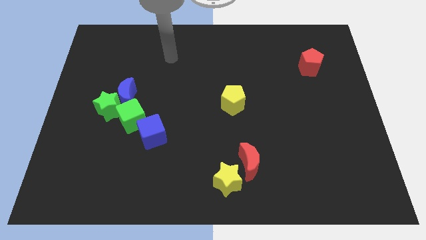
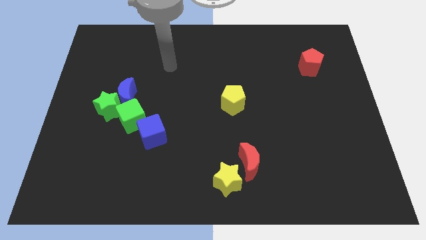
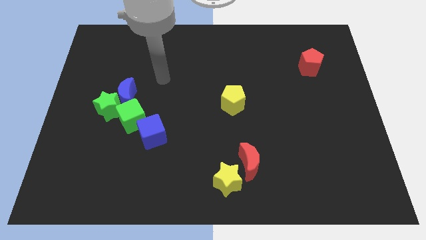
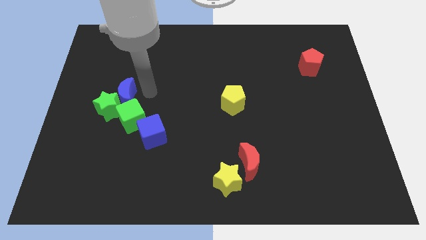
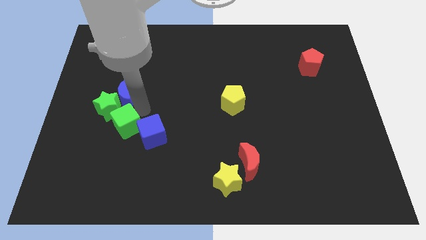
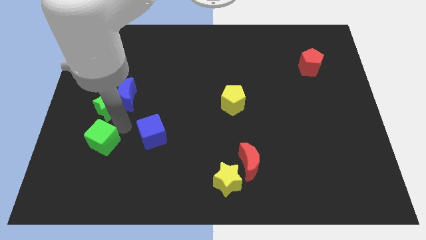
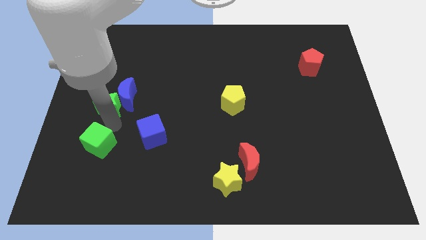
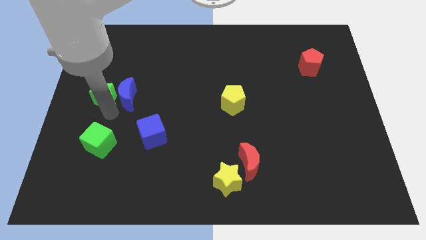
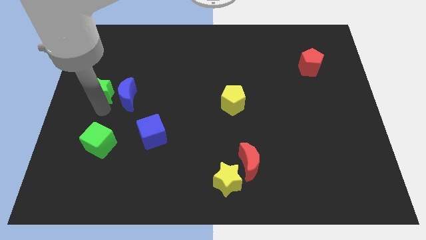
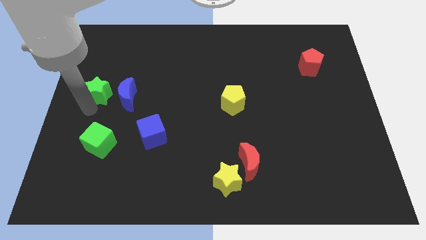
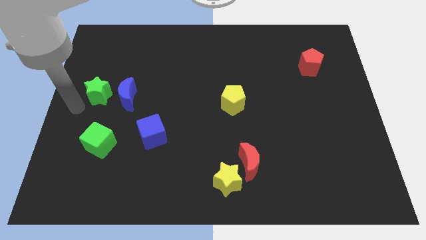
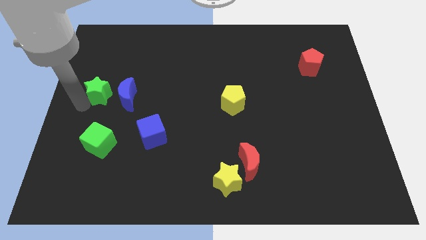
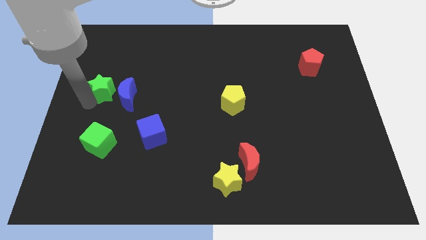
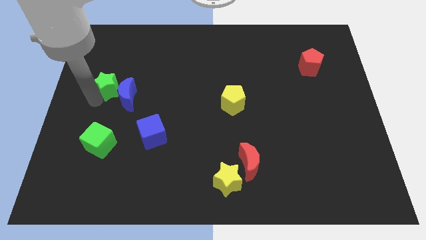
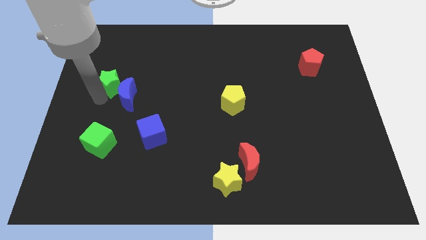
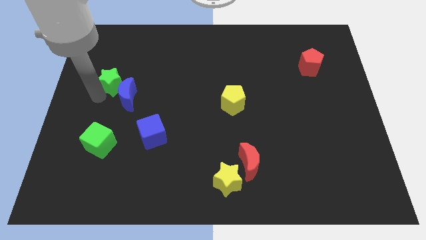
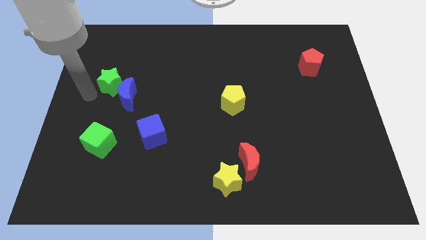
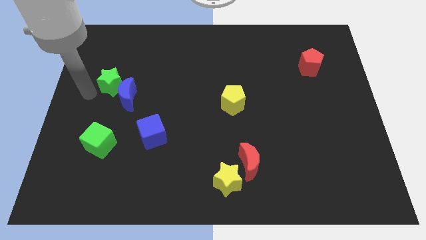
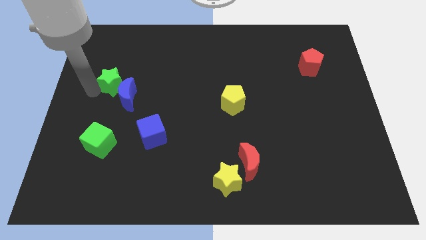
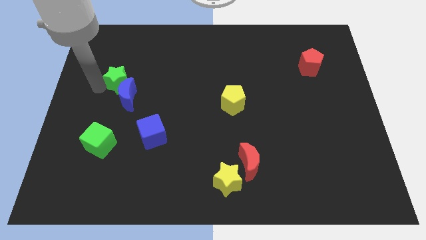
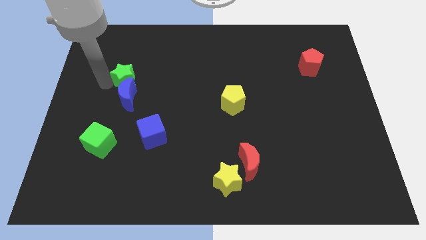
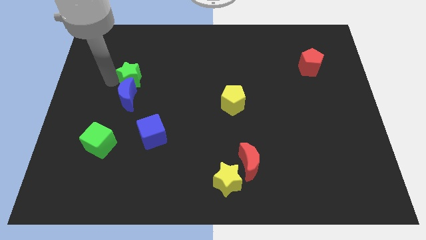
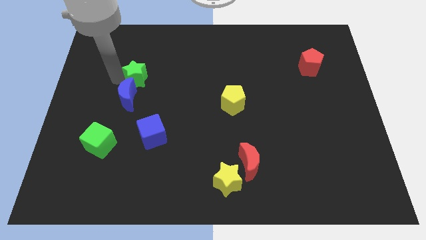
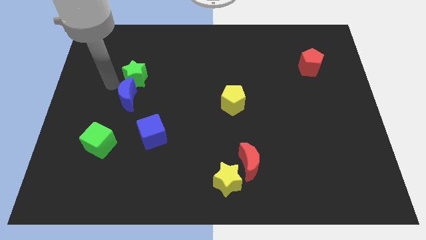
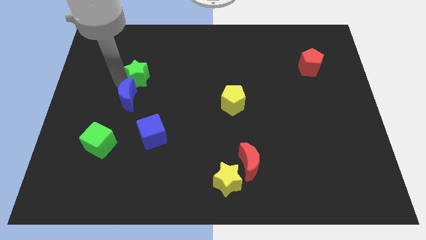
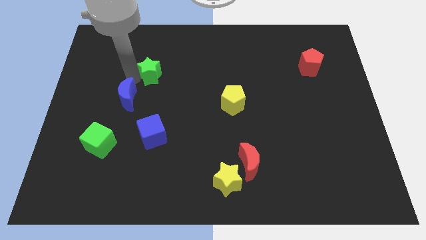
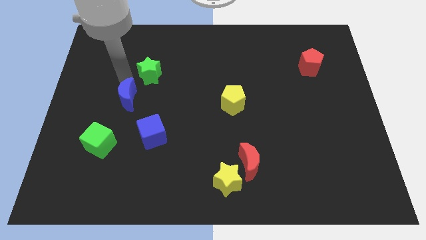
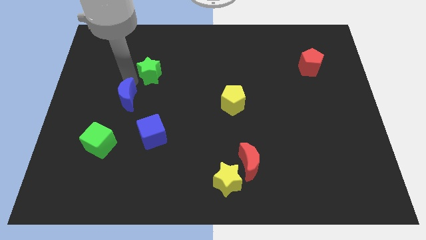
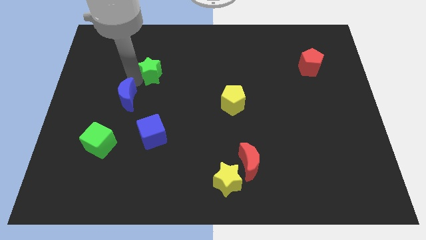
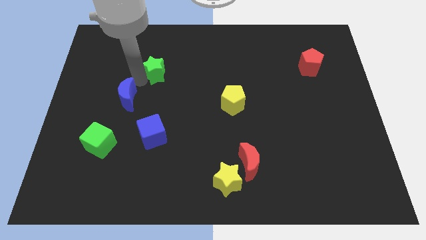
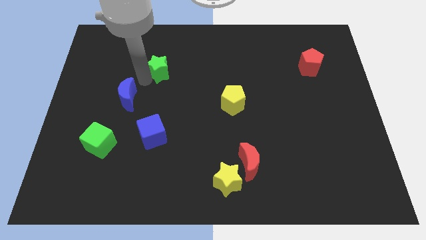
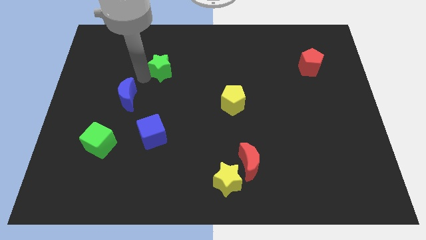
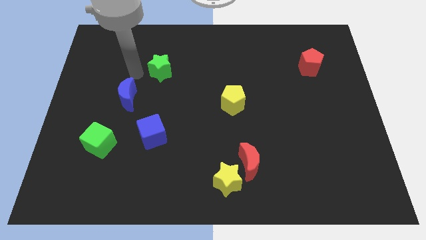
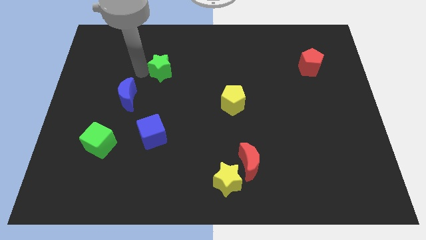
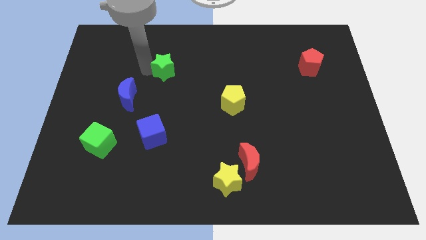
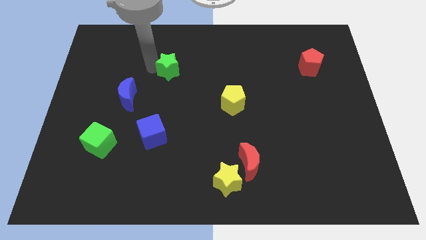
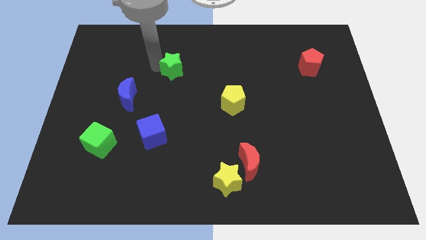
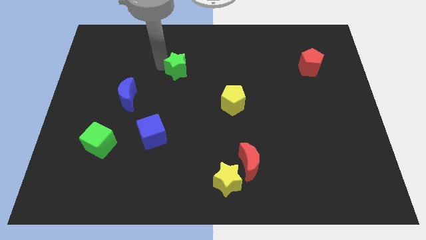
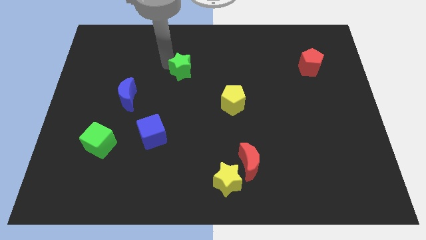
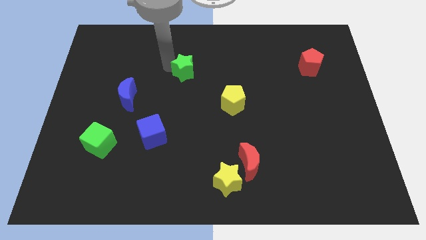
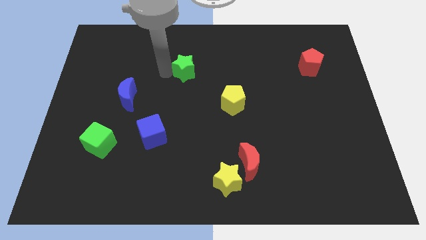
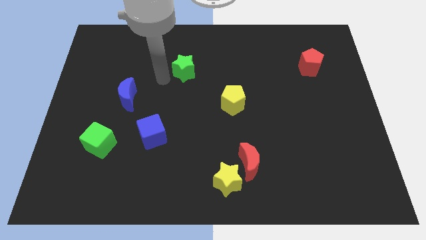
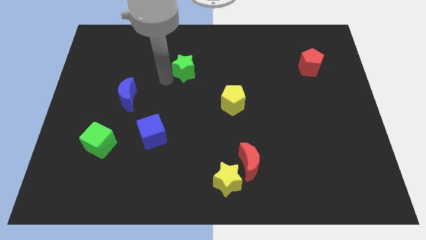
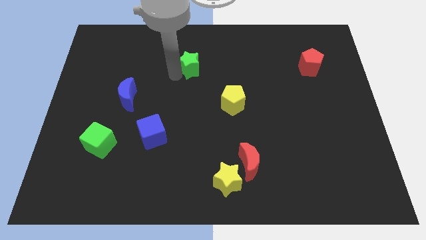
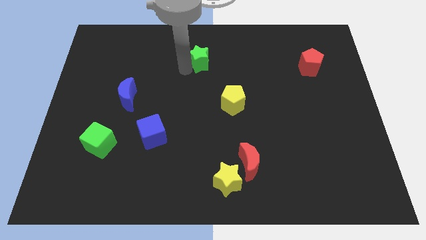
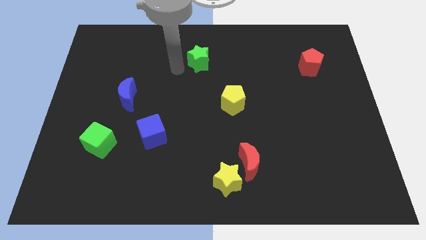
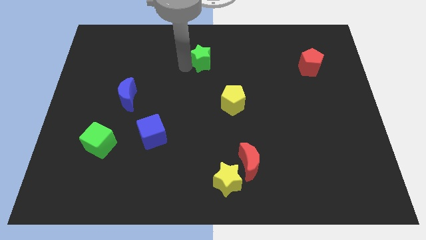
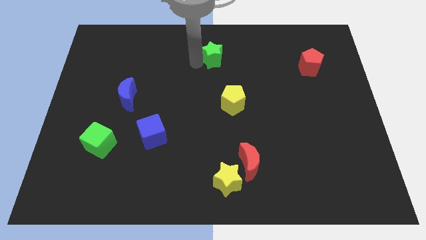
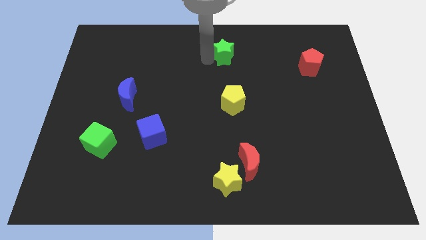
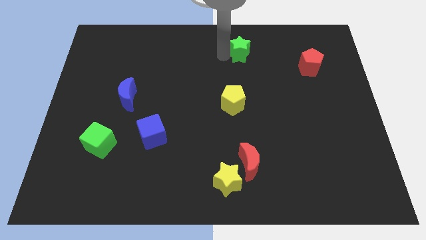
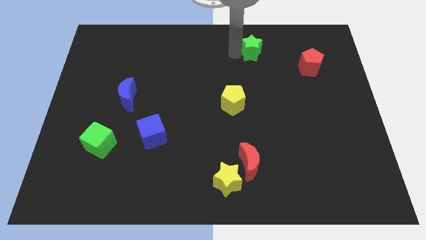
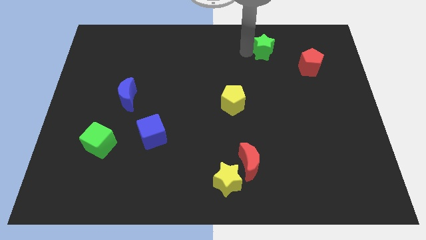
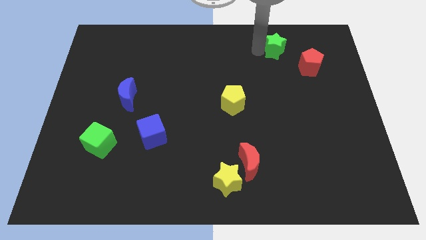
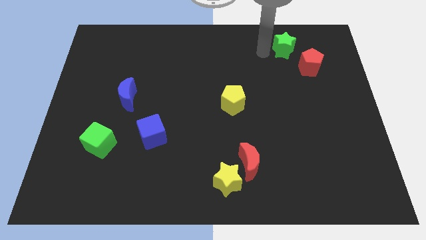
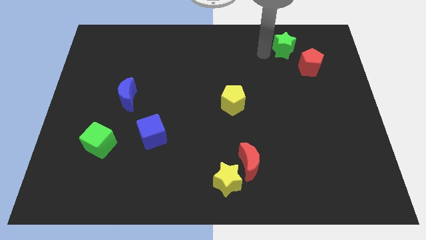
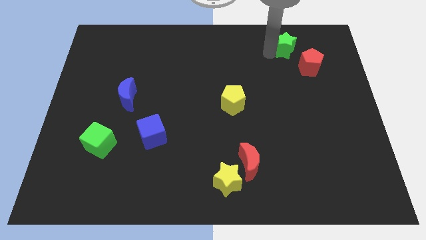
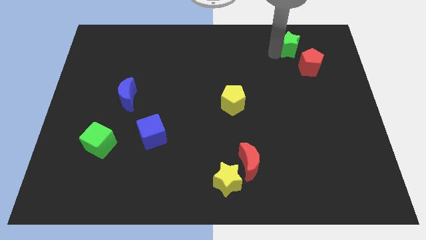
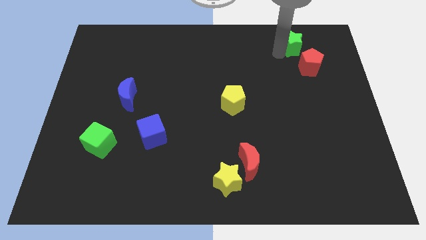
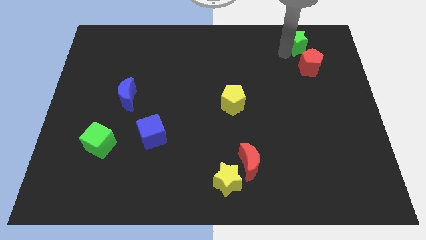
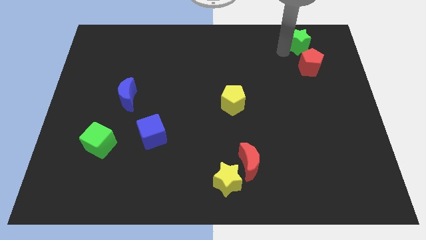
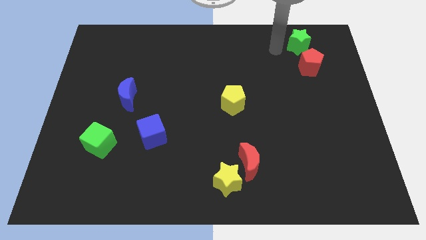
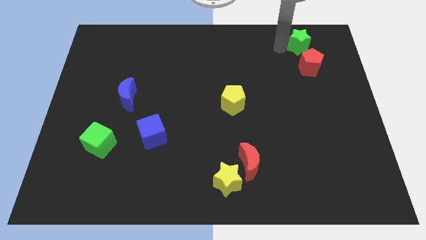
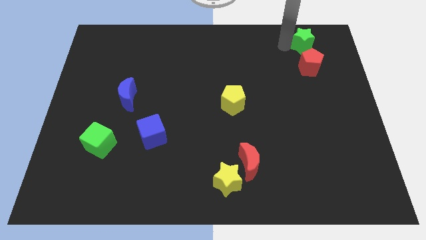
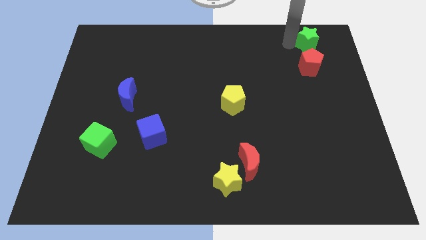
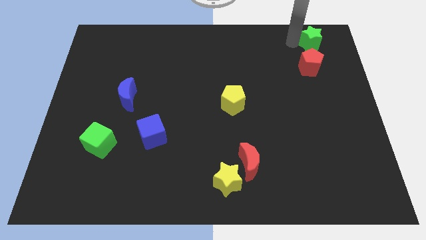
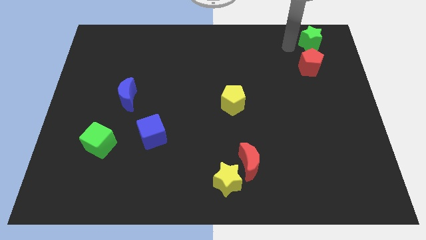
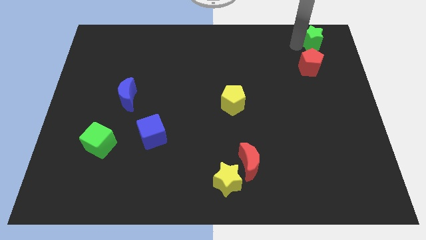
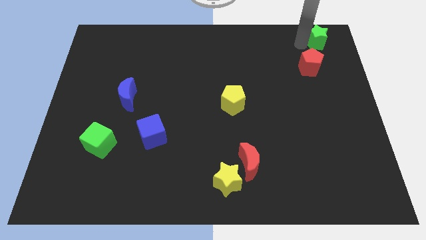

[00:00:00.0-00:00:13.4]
push the green star to the upper right corner
